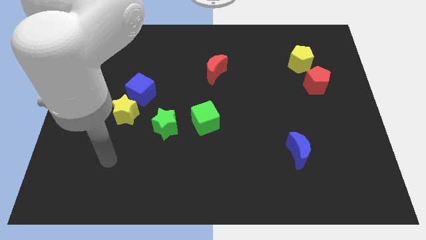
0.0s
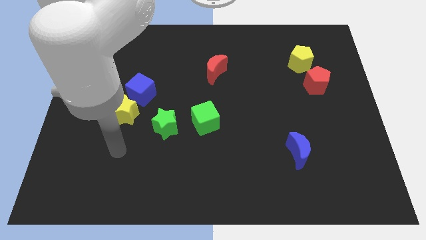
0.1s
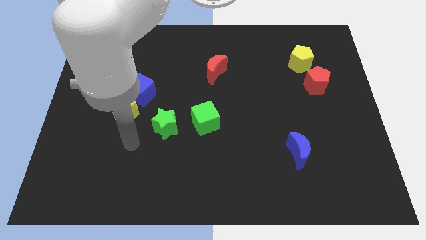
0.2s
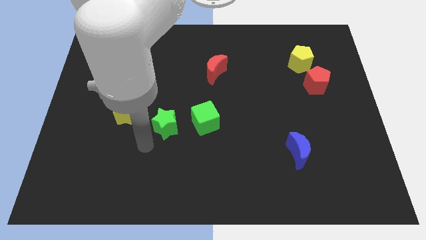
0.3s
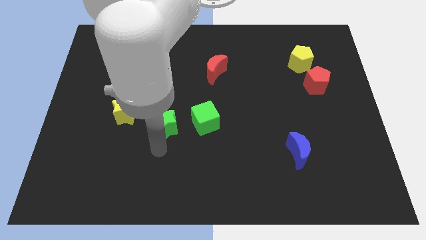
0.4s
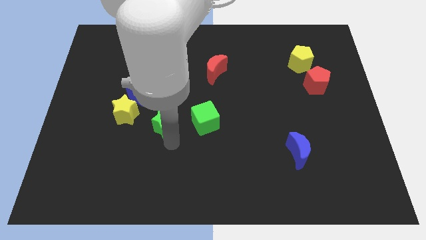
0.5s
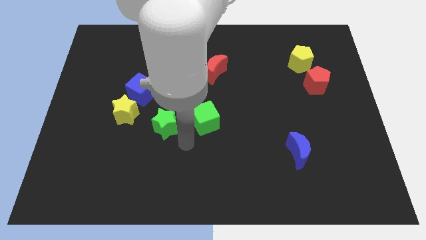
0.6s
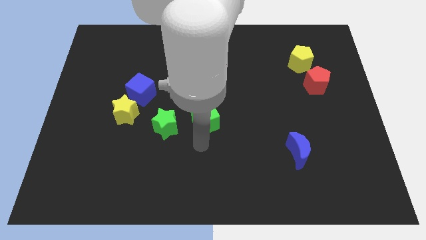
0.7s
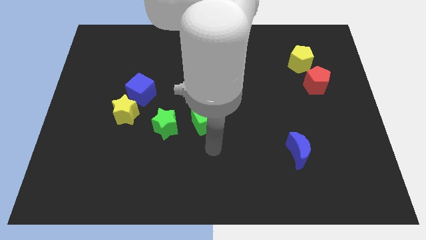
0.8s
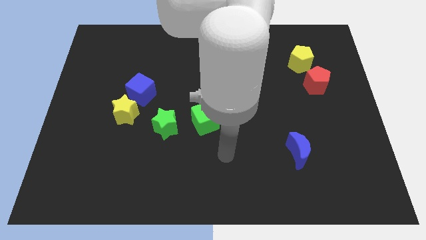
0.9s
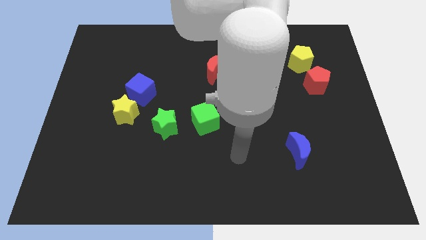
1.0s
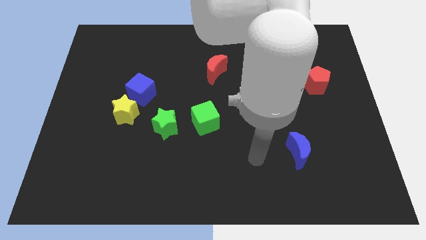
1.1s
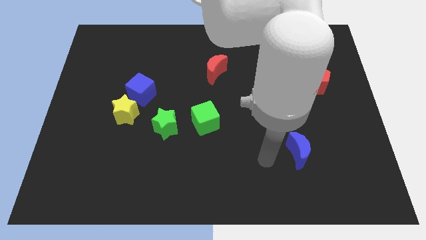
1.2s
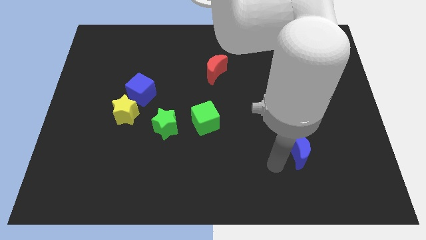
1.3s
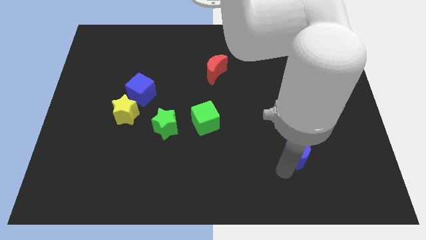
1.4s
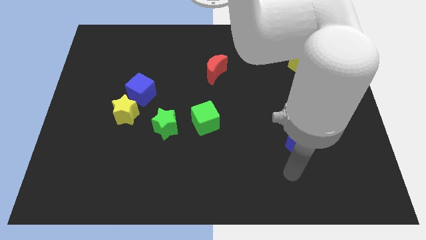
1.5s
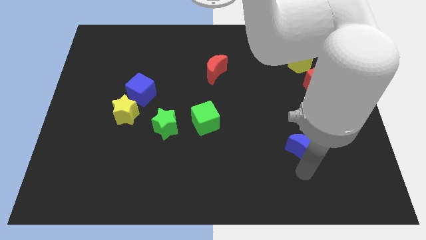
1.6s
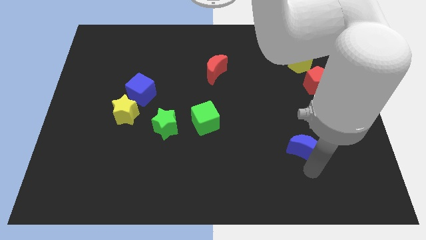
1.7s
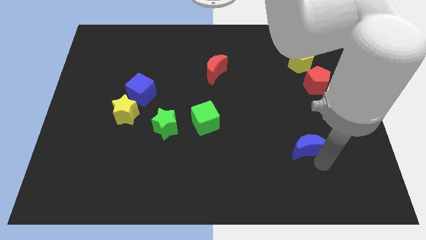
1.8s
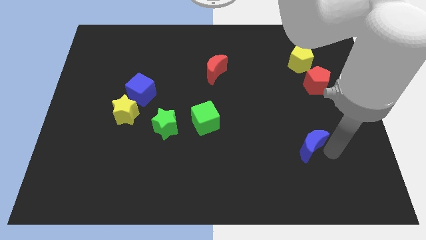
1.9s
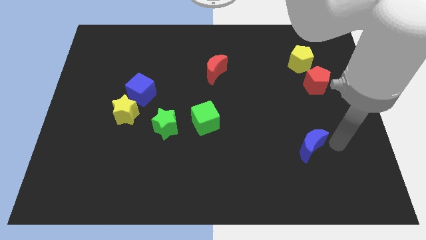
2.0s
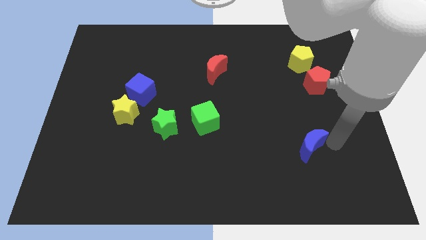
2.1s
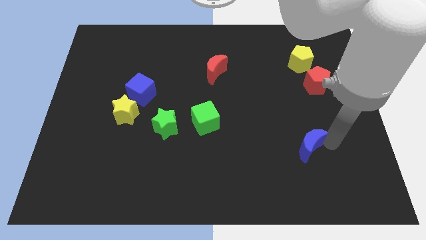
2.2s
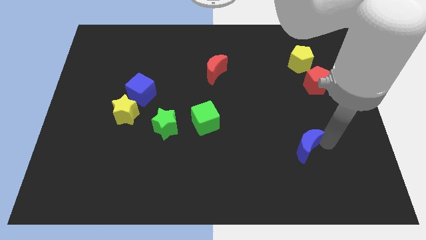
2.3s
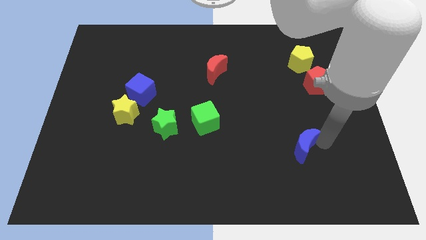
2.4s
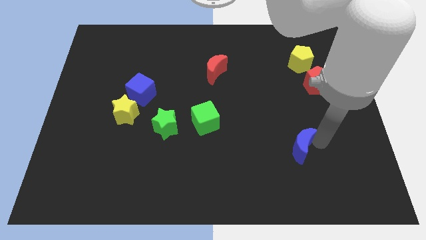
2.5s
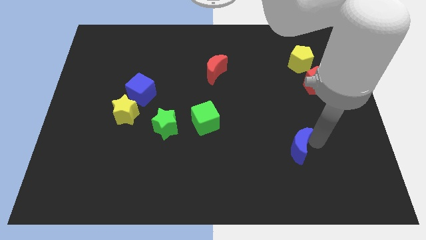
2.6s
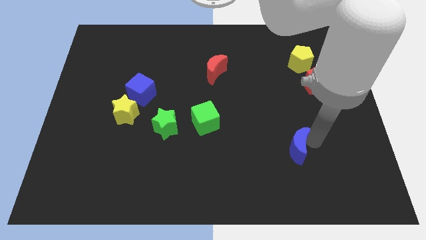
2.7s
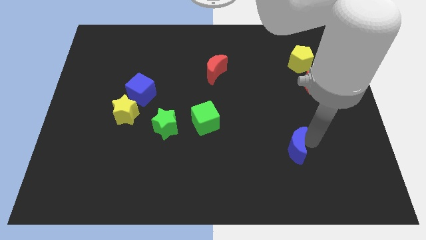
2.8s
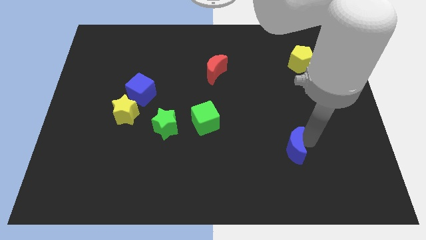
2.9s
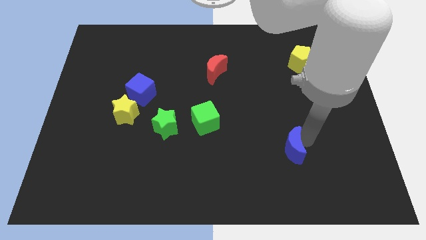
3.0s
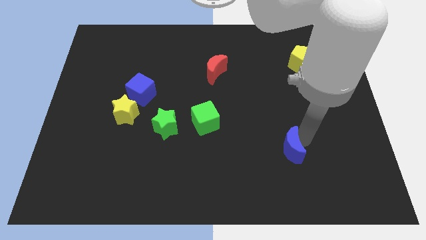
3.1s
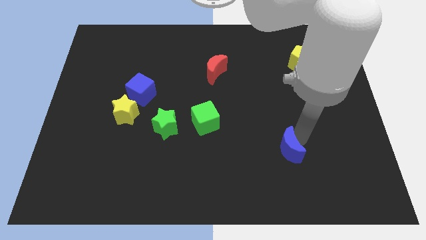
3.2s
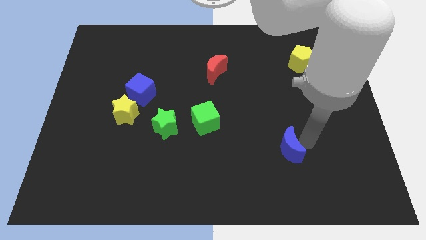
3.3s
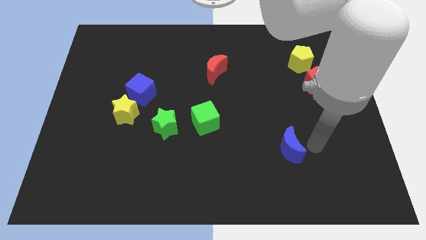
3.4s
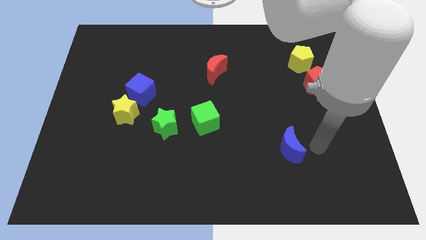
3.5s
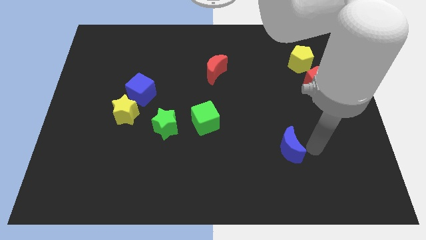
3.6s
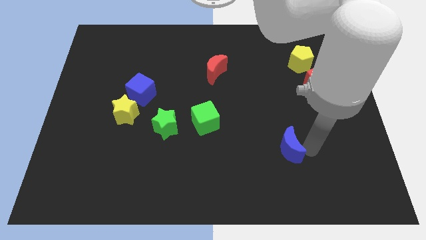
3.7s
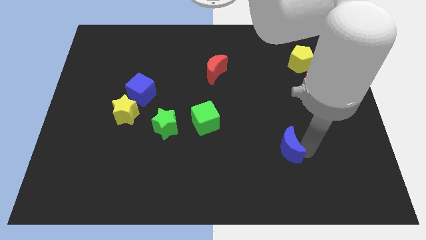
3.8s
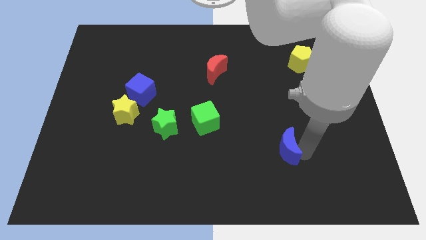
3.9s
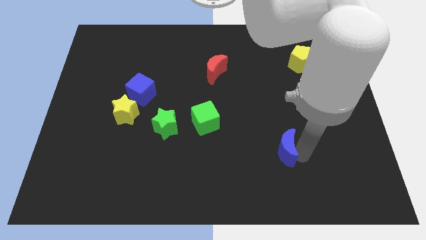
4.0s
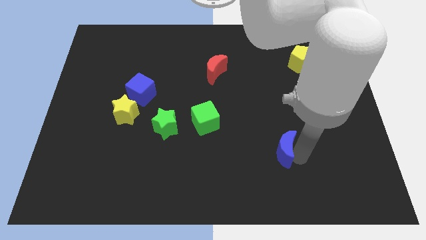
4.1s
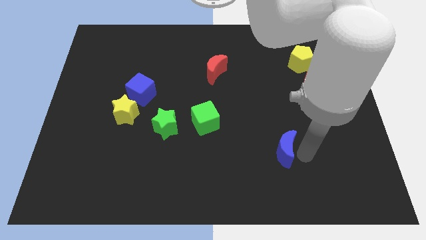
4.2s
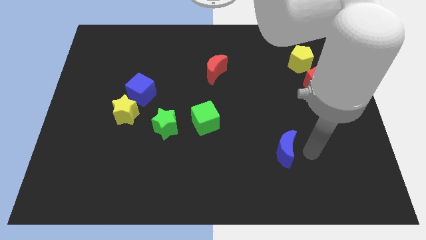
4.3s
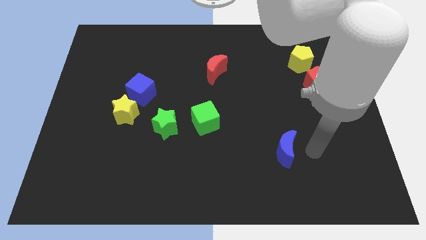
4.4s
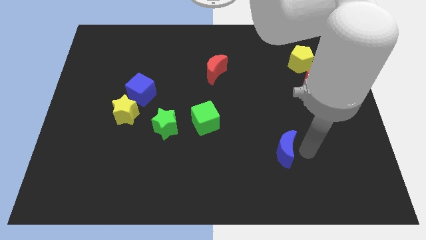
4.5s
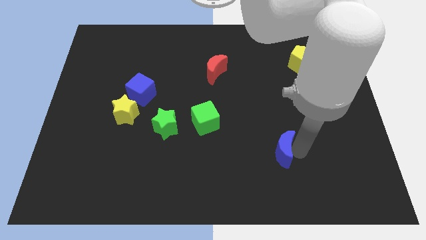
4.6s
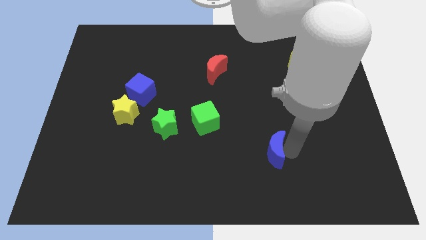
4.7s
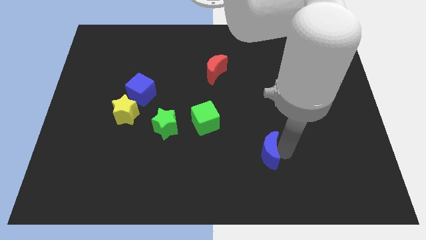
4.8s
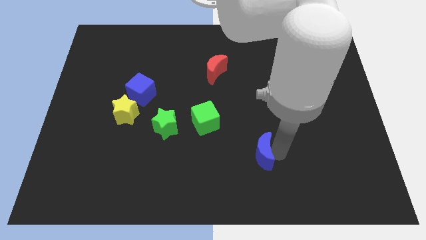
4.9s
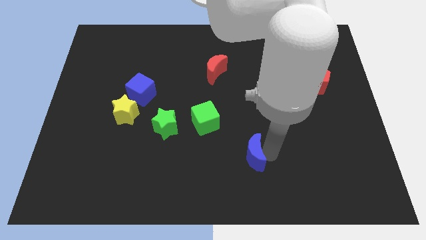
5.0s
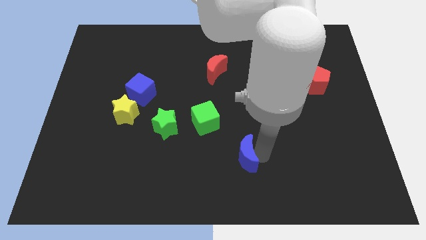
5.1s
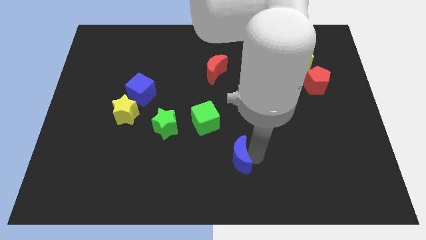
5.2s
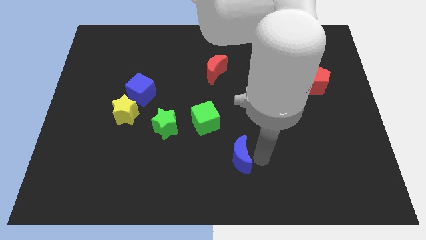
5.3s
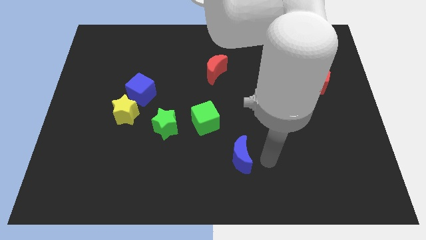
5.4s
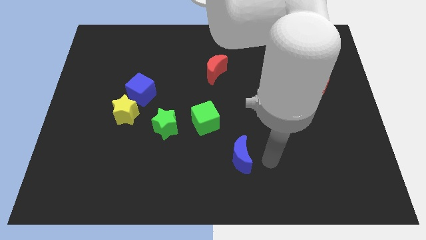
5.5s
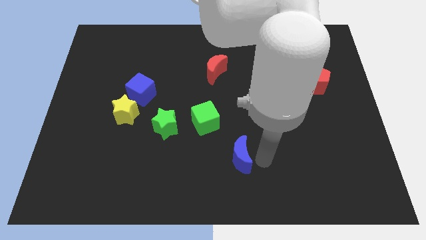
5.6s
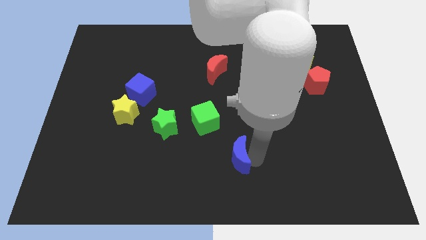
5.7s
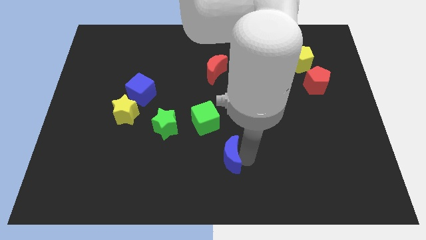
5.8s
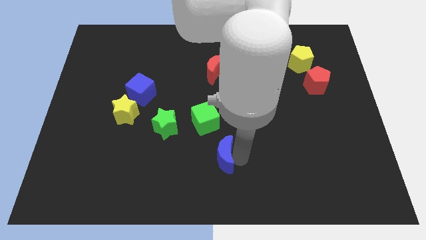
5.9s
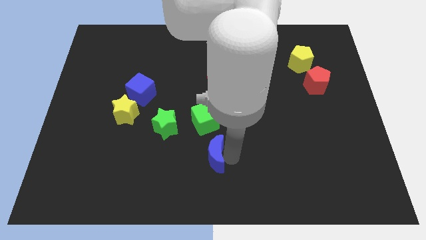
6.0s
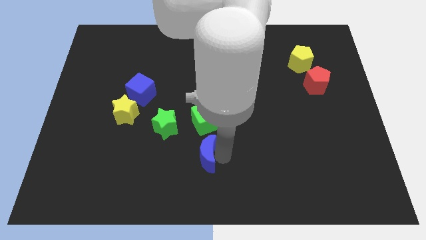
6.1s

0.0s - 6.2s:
move the blue moon to the left

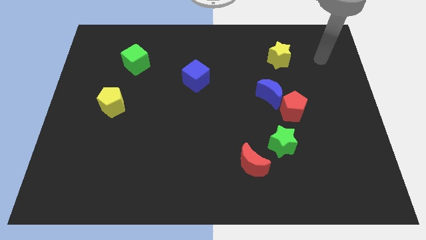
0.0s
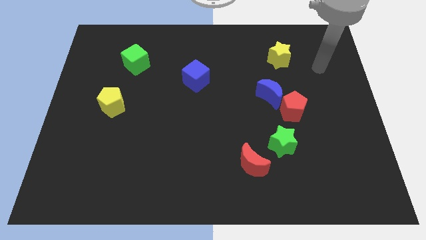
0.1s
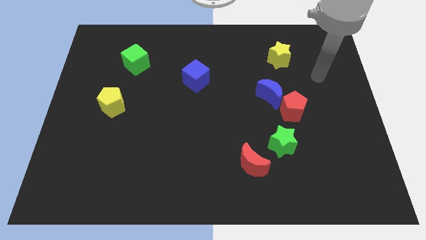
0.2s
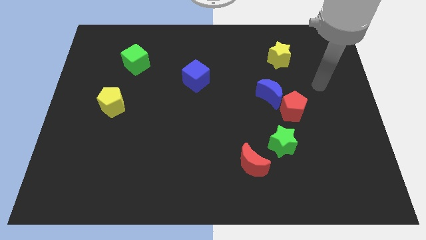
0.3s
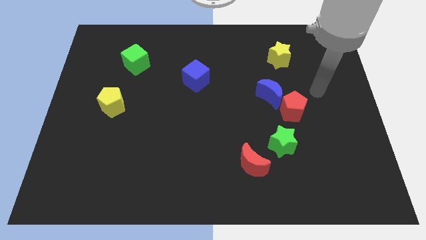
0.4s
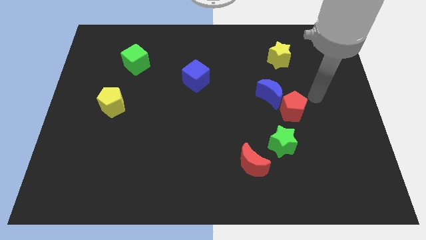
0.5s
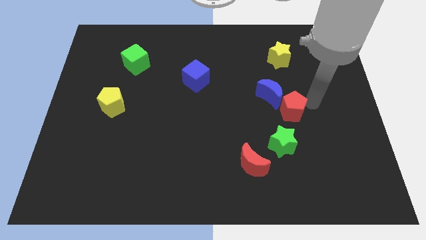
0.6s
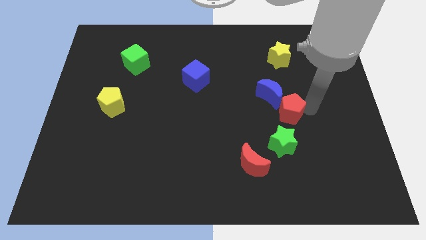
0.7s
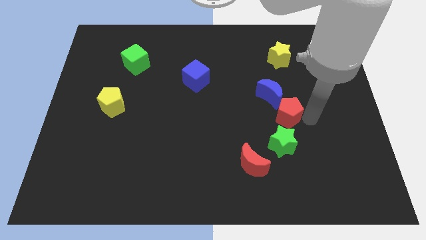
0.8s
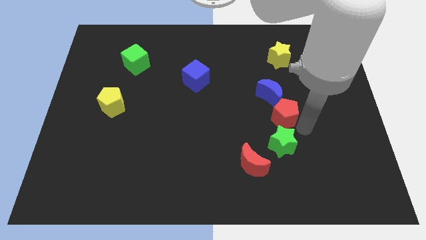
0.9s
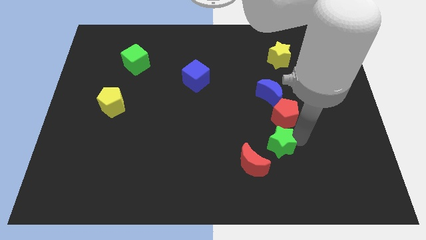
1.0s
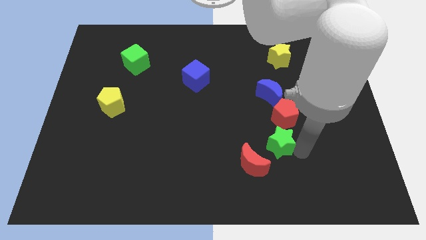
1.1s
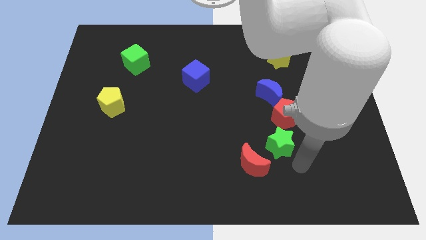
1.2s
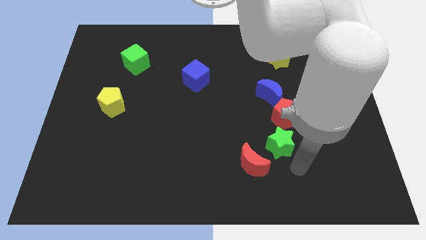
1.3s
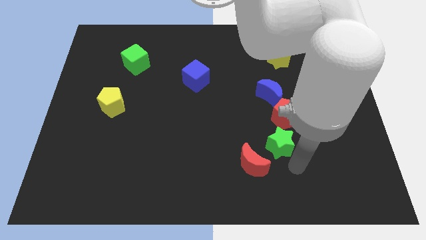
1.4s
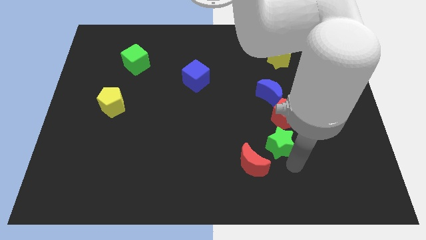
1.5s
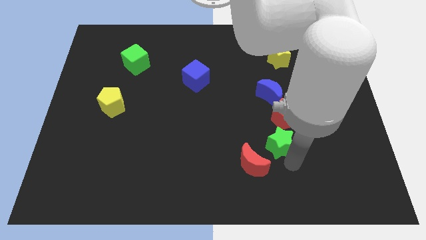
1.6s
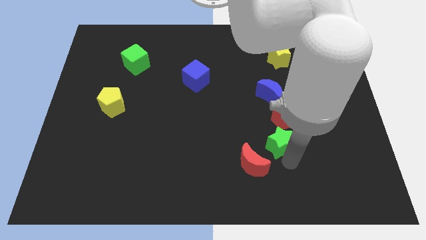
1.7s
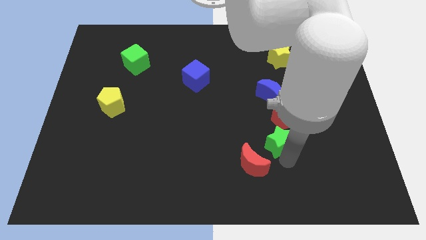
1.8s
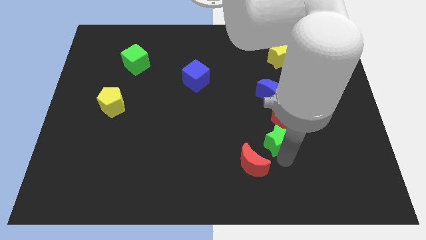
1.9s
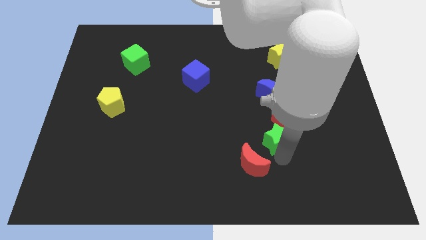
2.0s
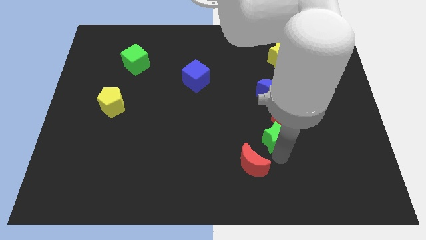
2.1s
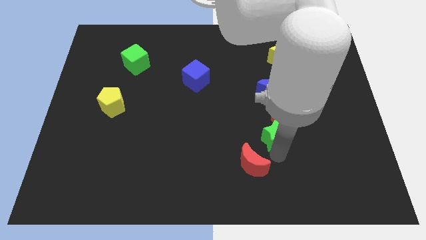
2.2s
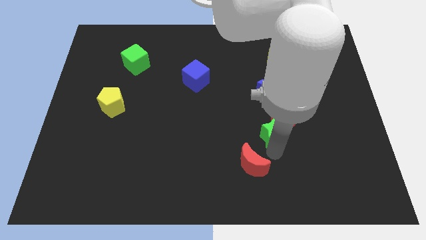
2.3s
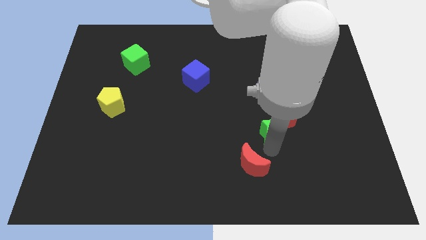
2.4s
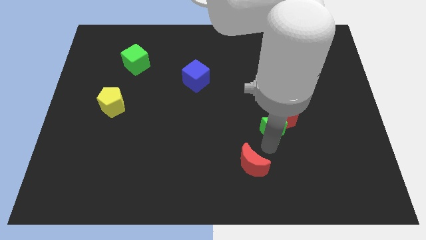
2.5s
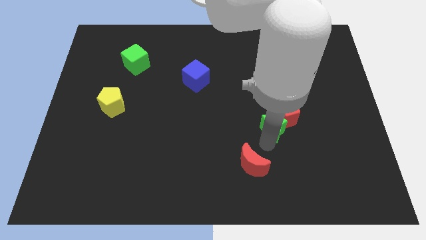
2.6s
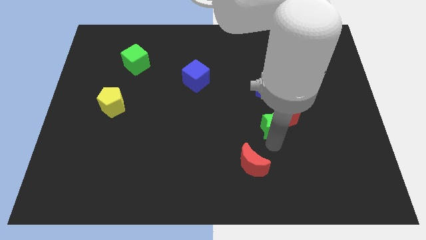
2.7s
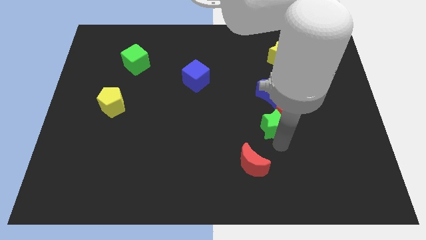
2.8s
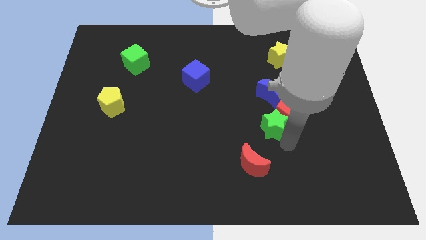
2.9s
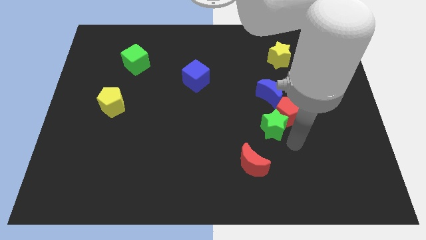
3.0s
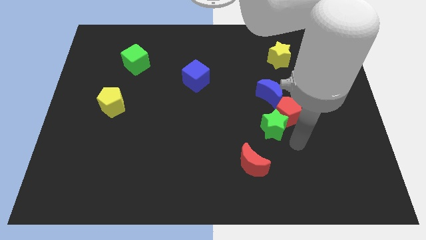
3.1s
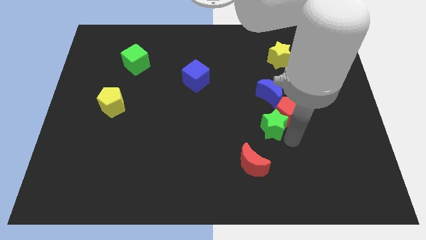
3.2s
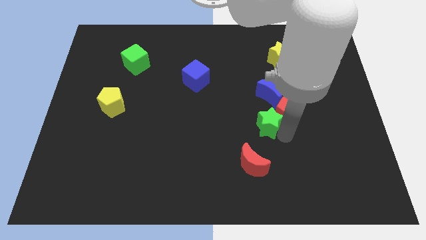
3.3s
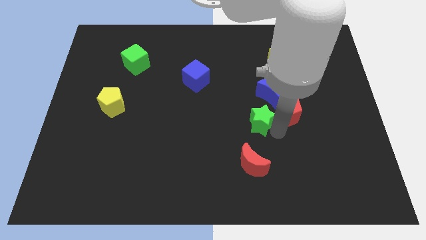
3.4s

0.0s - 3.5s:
push the green star a little bit up and left diagonally
